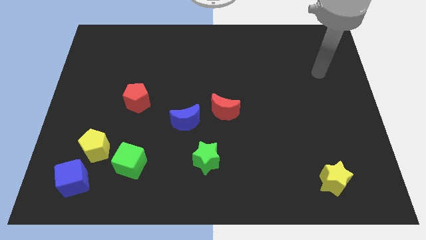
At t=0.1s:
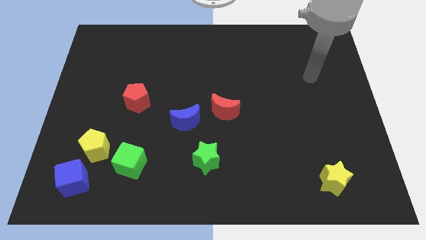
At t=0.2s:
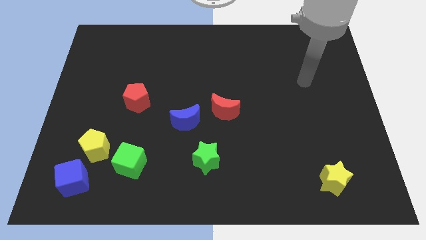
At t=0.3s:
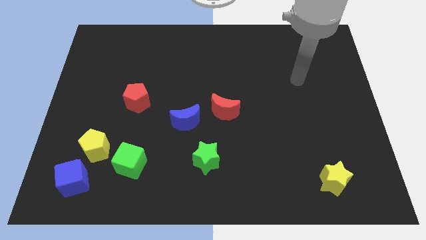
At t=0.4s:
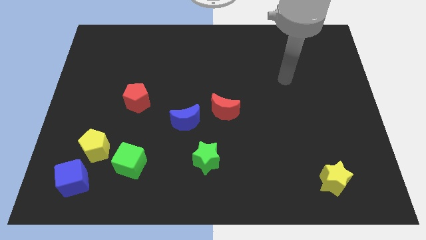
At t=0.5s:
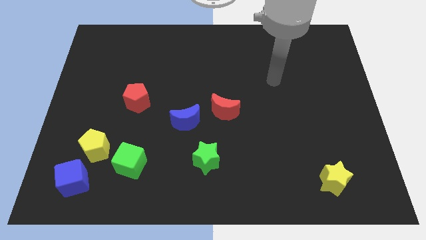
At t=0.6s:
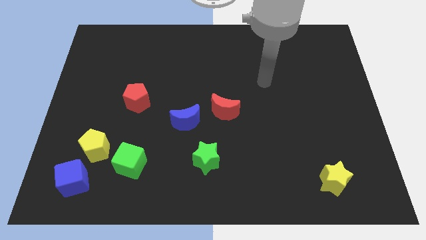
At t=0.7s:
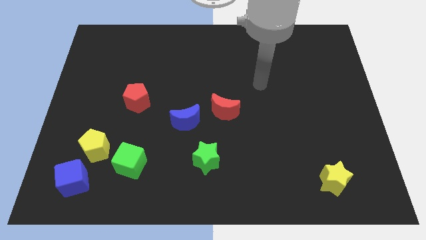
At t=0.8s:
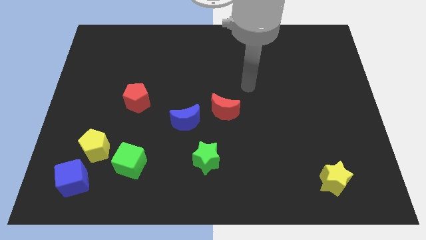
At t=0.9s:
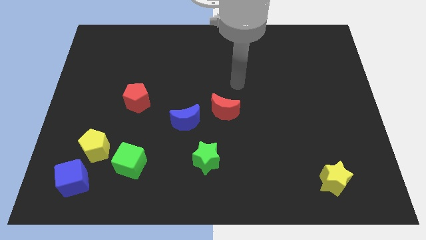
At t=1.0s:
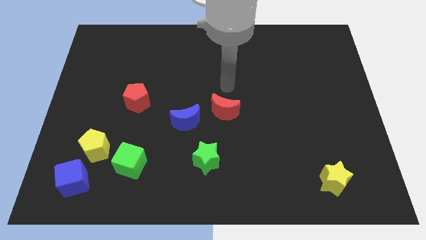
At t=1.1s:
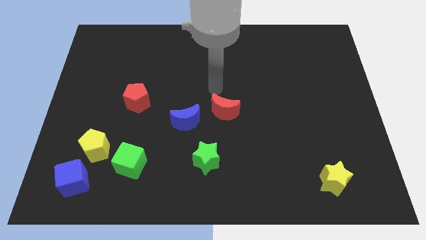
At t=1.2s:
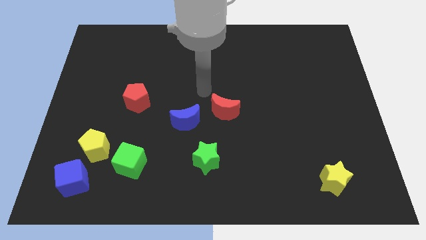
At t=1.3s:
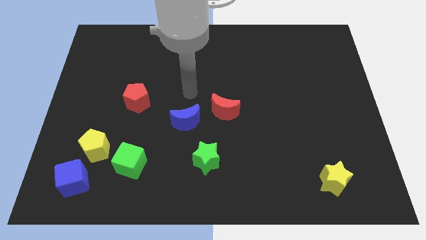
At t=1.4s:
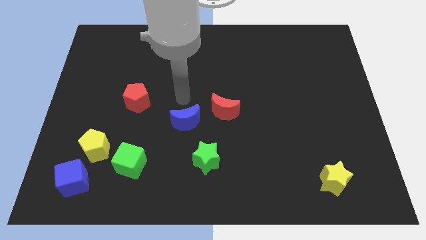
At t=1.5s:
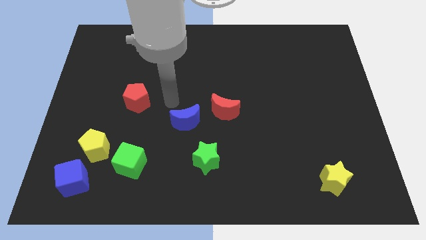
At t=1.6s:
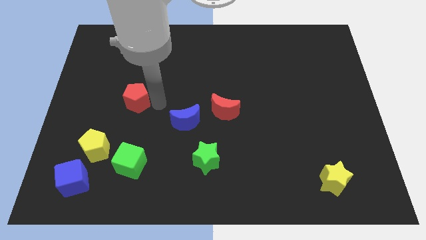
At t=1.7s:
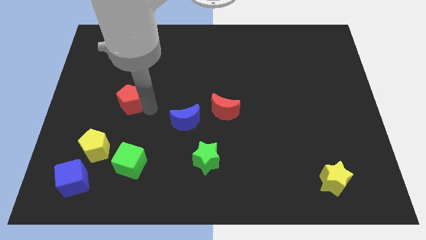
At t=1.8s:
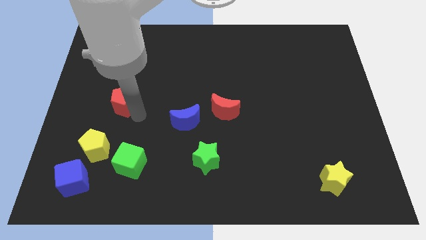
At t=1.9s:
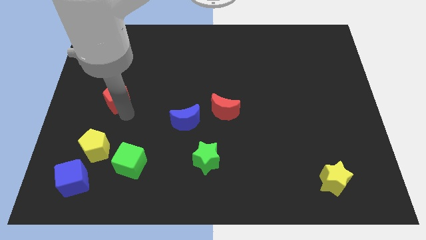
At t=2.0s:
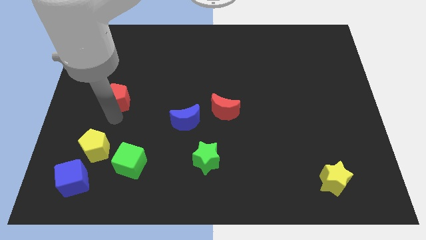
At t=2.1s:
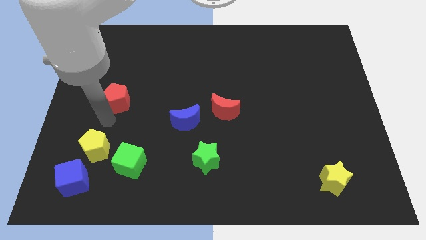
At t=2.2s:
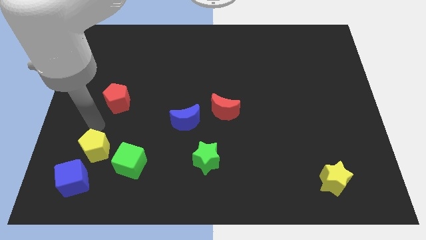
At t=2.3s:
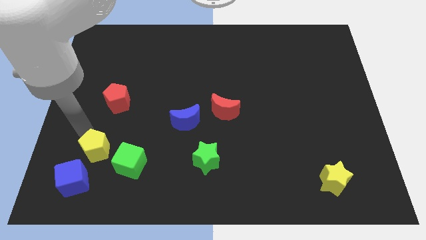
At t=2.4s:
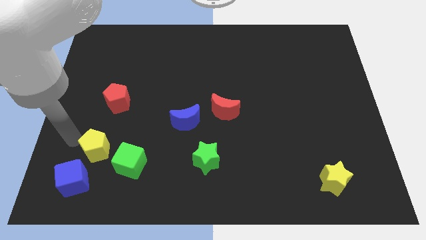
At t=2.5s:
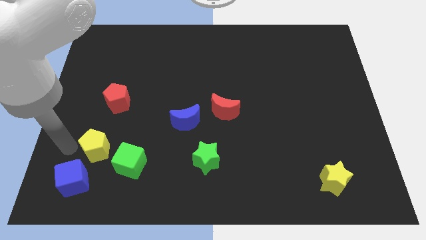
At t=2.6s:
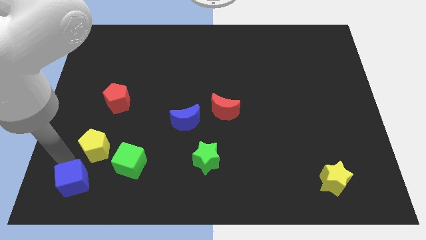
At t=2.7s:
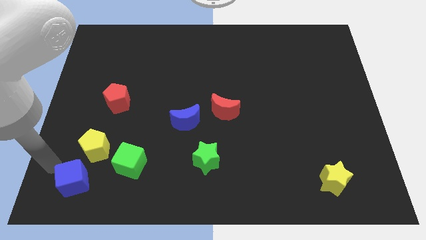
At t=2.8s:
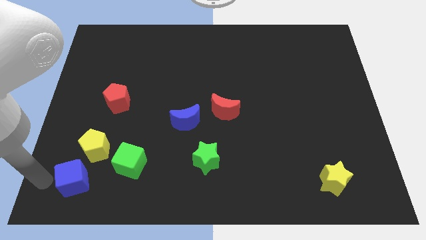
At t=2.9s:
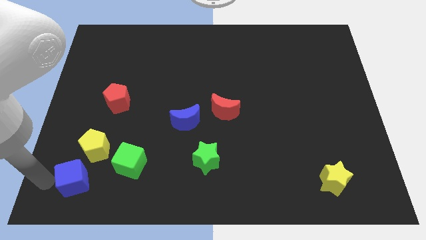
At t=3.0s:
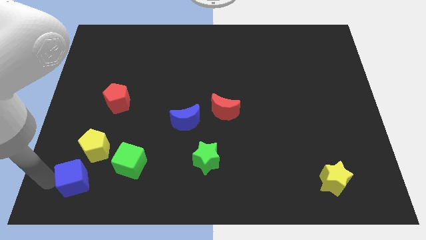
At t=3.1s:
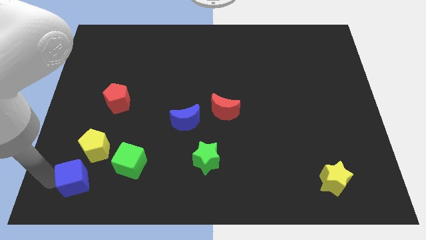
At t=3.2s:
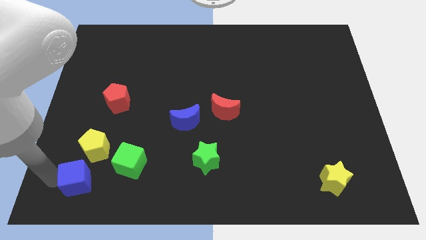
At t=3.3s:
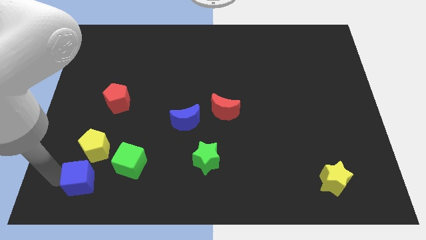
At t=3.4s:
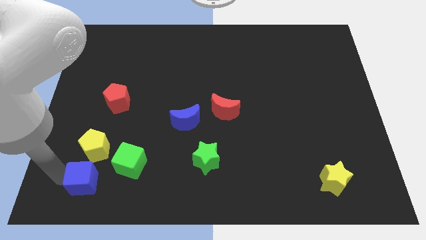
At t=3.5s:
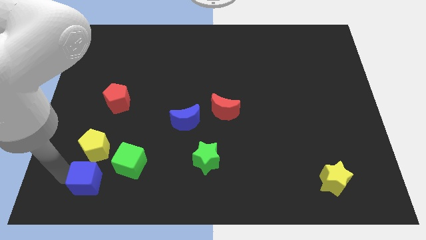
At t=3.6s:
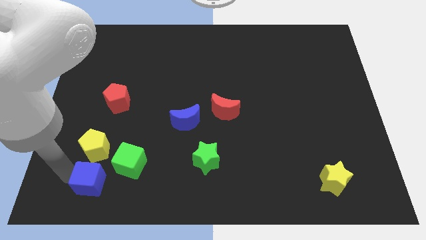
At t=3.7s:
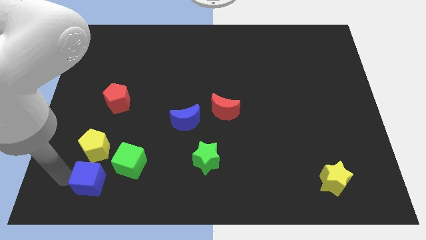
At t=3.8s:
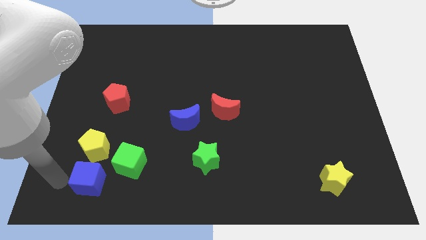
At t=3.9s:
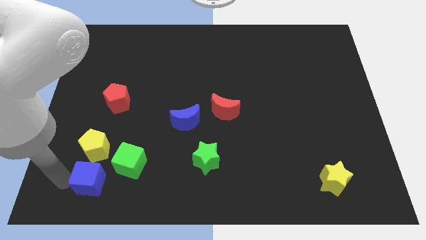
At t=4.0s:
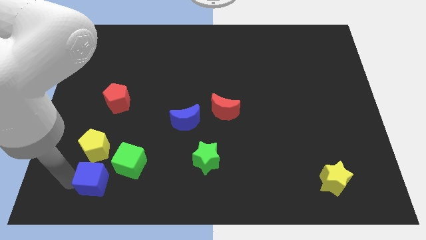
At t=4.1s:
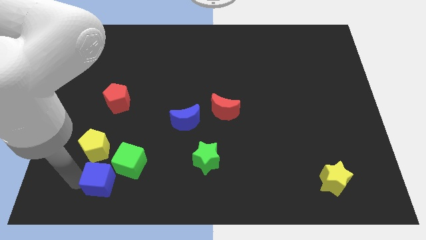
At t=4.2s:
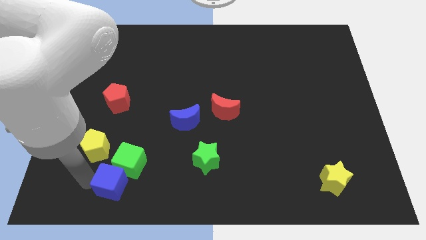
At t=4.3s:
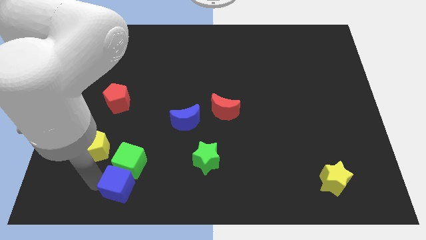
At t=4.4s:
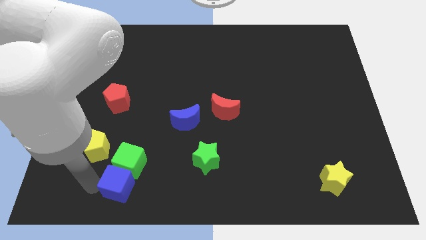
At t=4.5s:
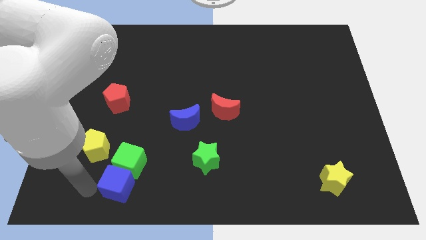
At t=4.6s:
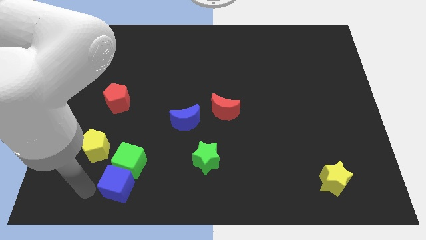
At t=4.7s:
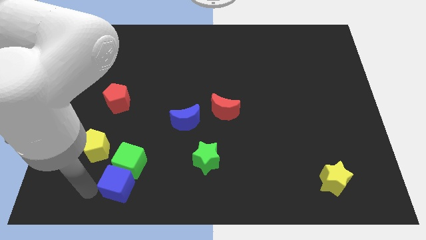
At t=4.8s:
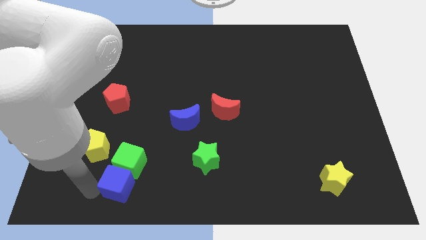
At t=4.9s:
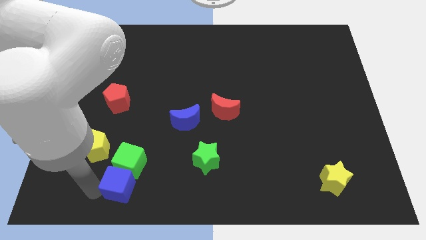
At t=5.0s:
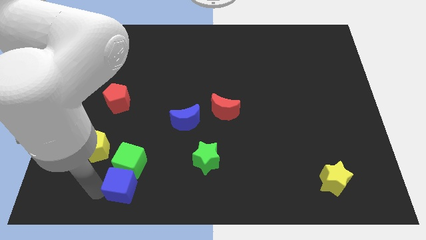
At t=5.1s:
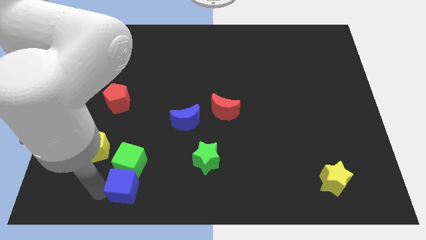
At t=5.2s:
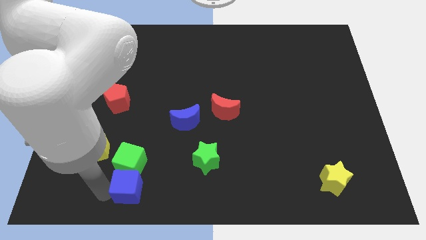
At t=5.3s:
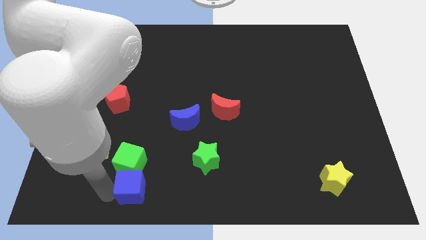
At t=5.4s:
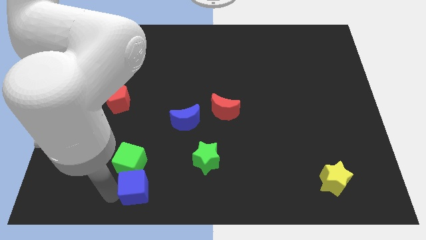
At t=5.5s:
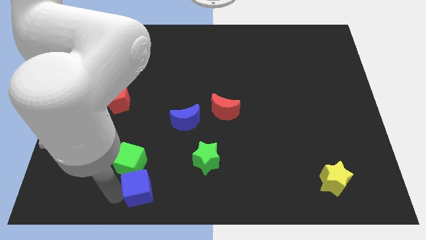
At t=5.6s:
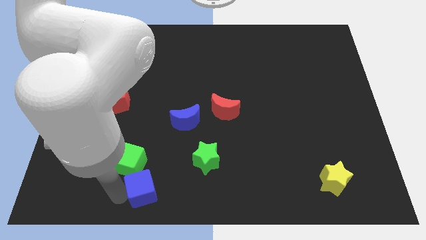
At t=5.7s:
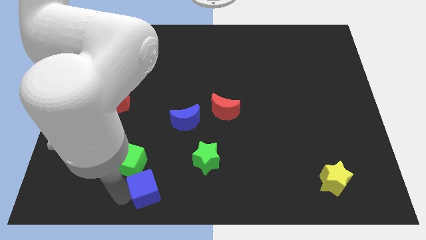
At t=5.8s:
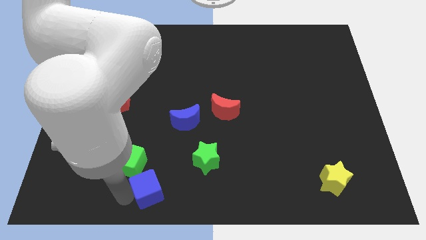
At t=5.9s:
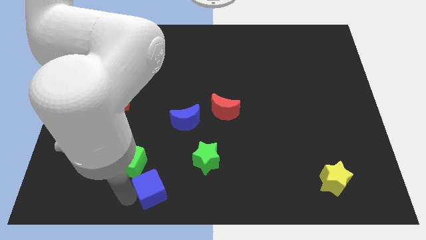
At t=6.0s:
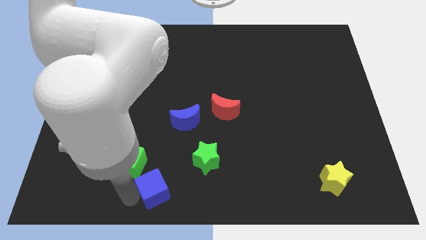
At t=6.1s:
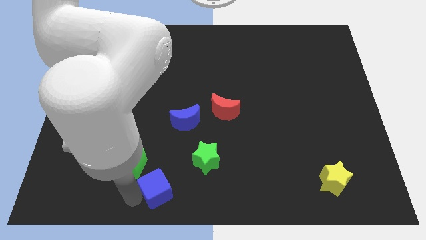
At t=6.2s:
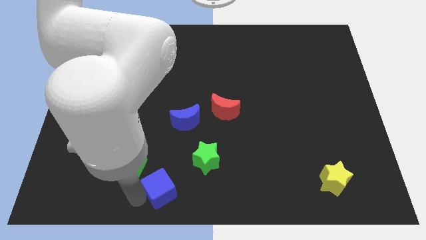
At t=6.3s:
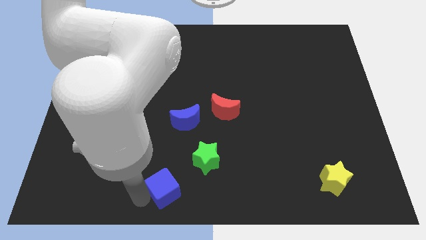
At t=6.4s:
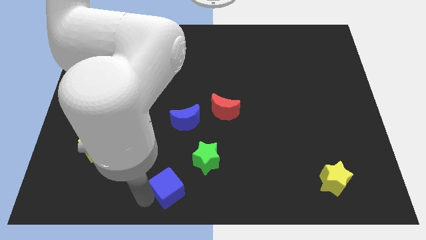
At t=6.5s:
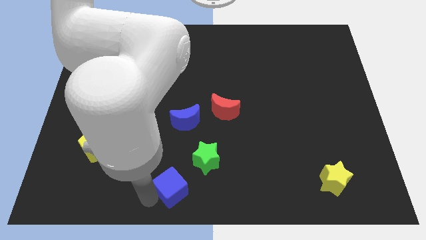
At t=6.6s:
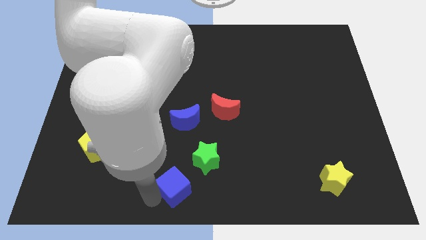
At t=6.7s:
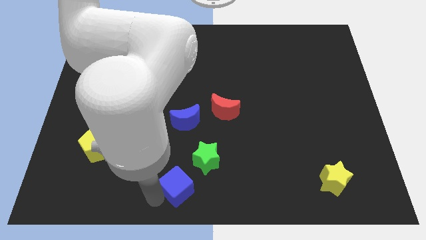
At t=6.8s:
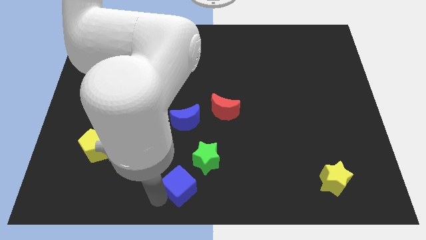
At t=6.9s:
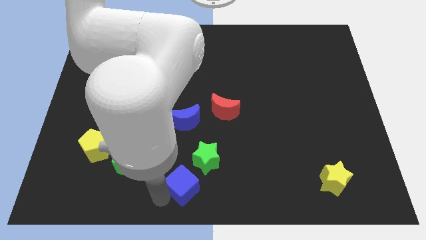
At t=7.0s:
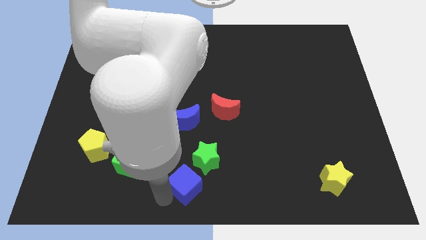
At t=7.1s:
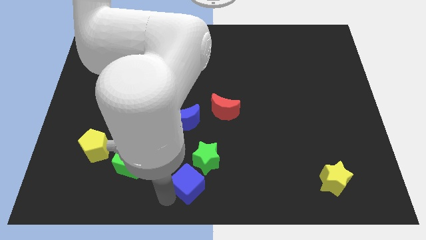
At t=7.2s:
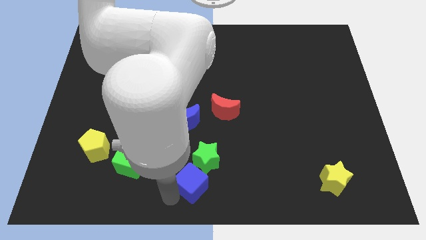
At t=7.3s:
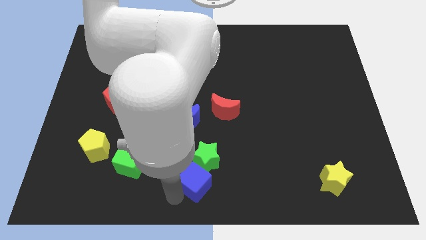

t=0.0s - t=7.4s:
put the blue cube next to the green star

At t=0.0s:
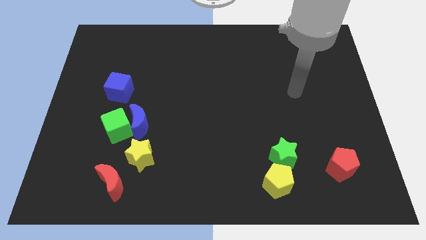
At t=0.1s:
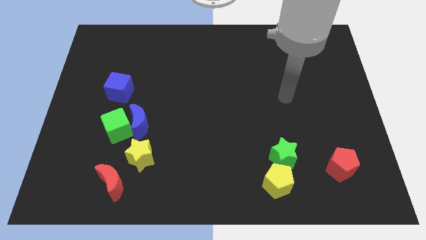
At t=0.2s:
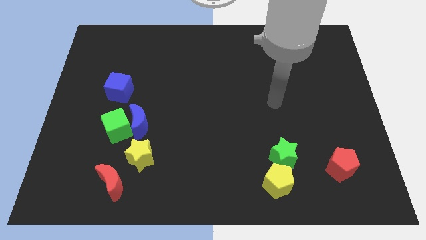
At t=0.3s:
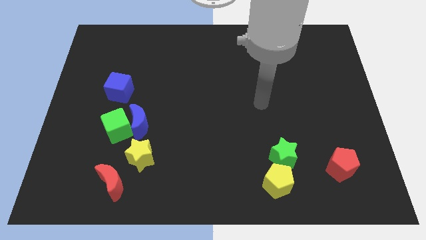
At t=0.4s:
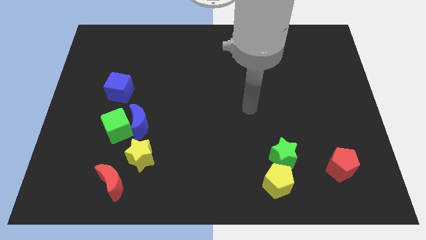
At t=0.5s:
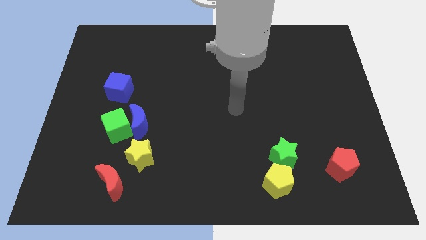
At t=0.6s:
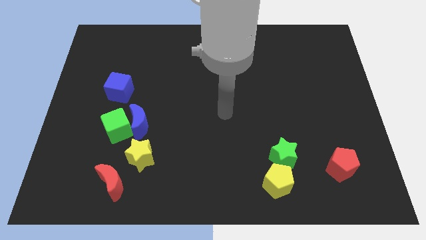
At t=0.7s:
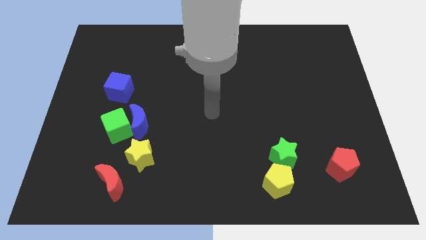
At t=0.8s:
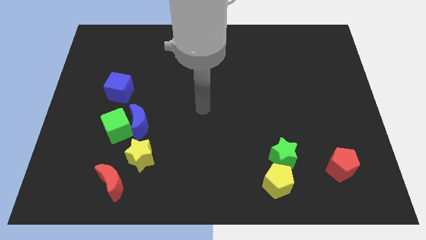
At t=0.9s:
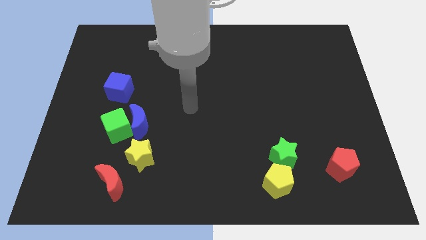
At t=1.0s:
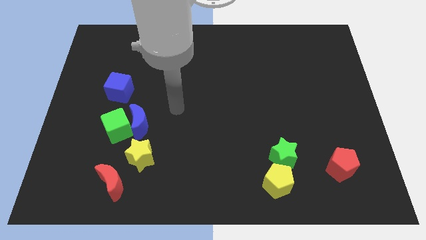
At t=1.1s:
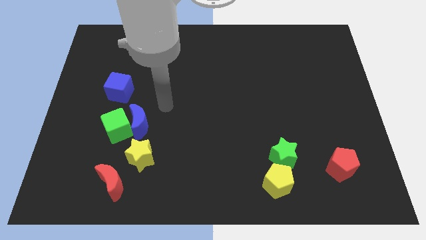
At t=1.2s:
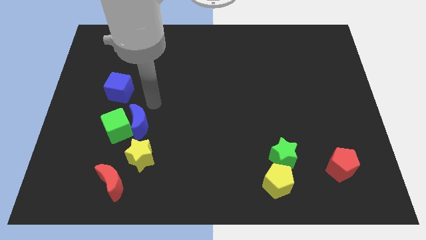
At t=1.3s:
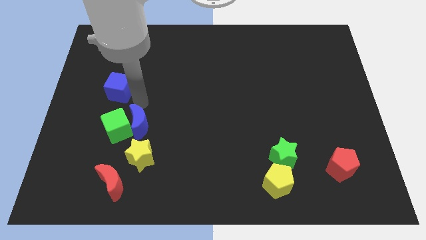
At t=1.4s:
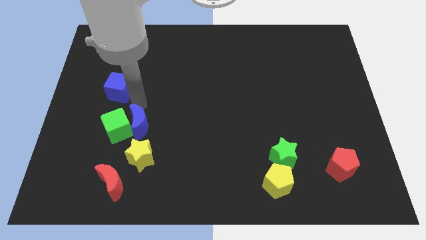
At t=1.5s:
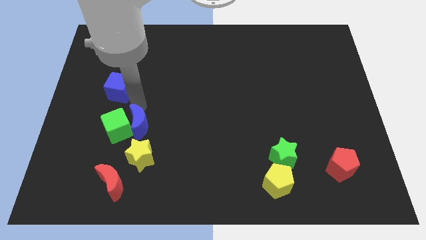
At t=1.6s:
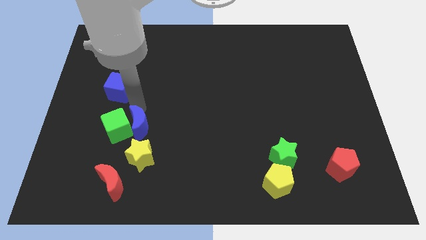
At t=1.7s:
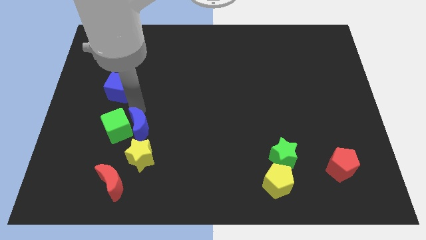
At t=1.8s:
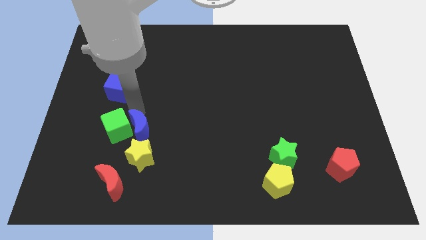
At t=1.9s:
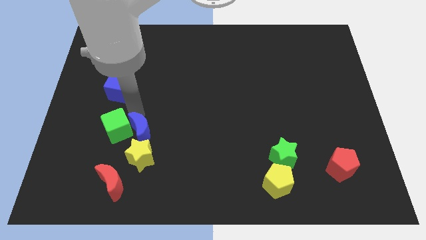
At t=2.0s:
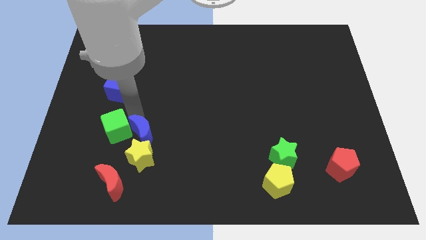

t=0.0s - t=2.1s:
slide the blue moon to the yellow star
